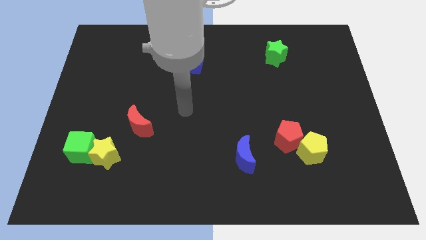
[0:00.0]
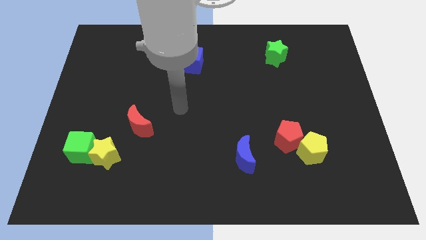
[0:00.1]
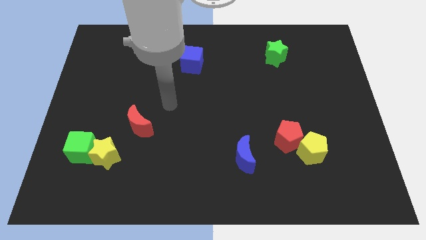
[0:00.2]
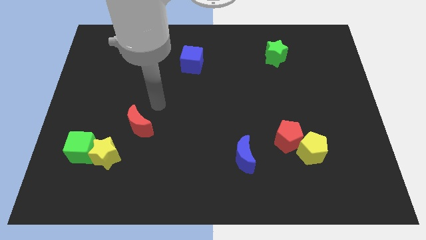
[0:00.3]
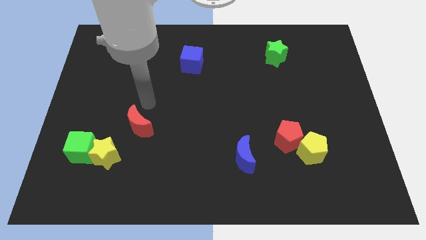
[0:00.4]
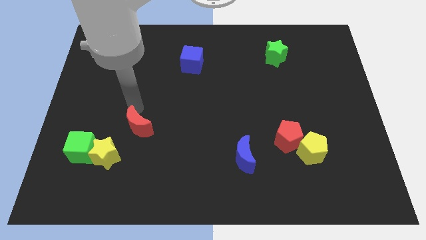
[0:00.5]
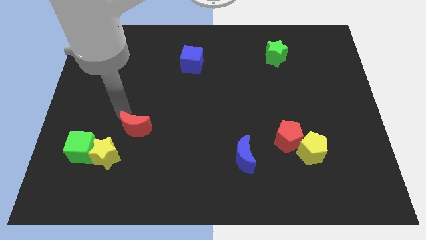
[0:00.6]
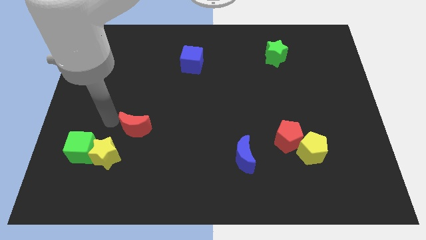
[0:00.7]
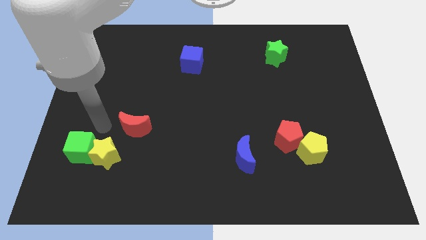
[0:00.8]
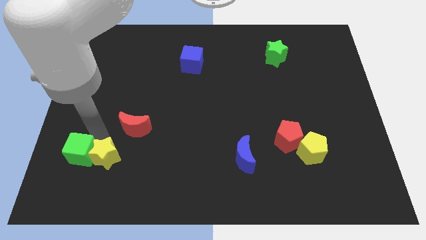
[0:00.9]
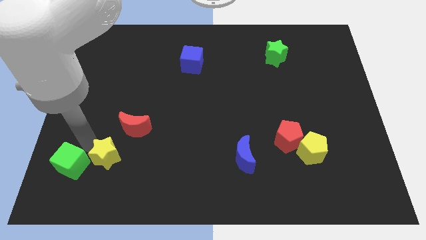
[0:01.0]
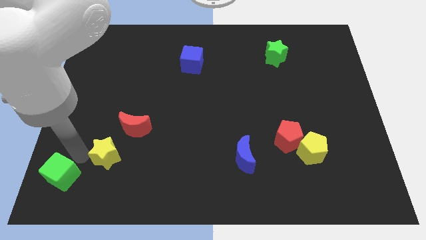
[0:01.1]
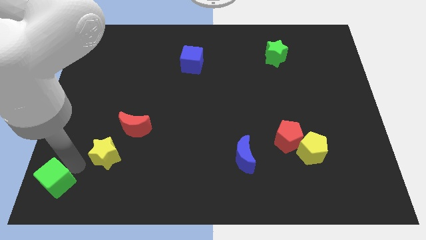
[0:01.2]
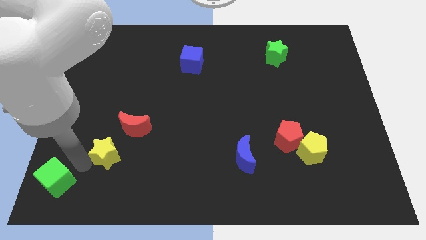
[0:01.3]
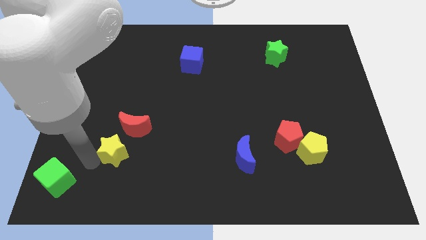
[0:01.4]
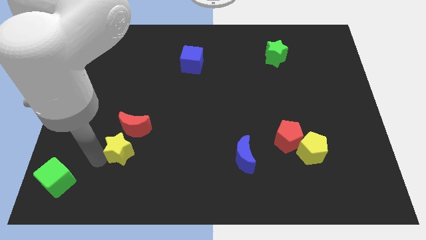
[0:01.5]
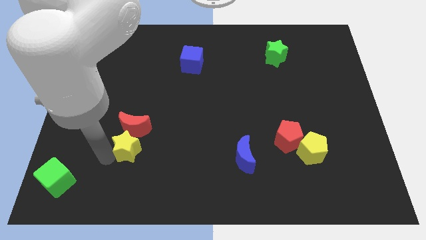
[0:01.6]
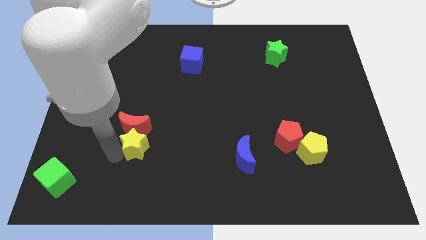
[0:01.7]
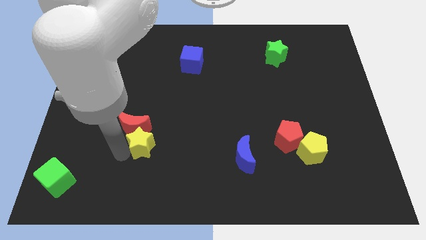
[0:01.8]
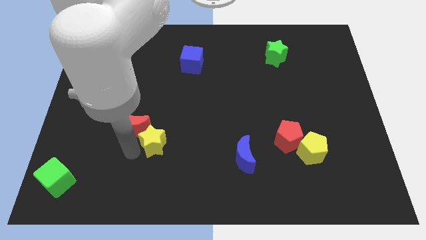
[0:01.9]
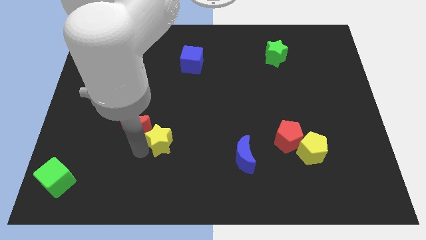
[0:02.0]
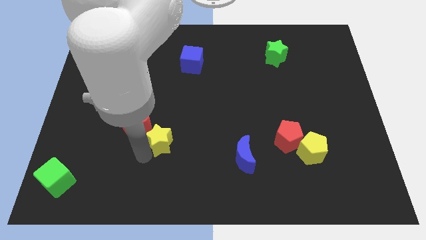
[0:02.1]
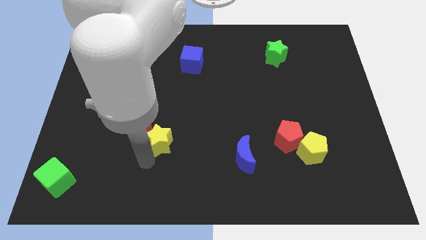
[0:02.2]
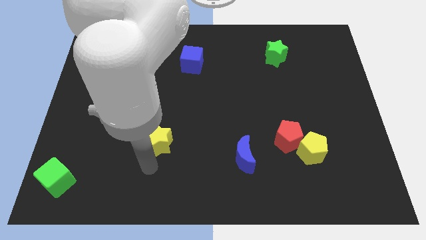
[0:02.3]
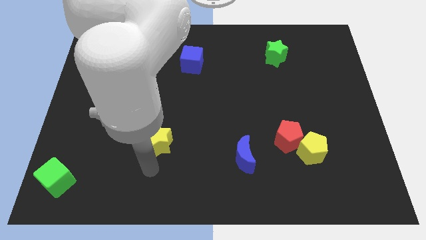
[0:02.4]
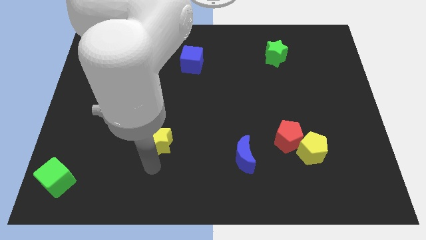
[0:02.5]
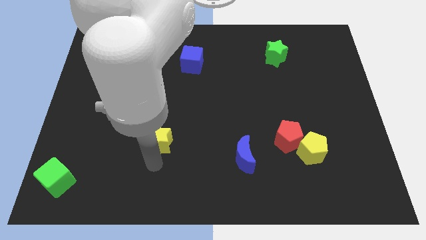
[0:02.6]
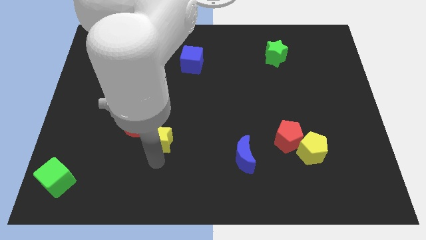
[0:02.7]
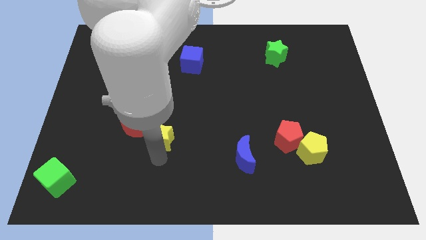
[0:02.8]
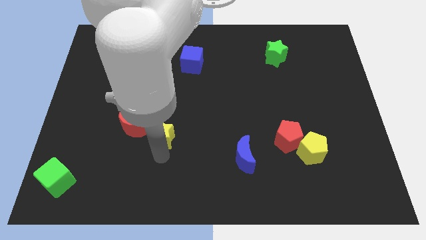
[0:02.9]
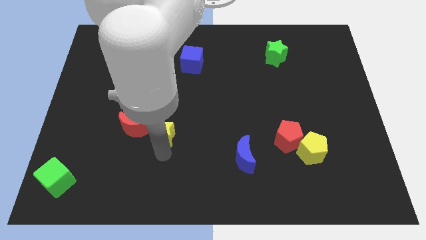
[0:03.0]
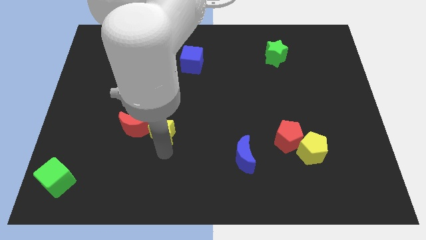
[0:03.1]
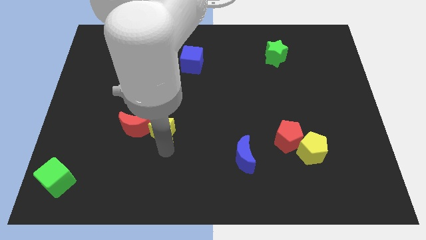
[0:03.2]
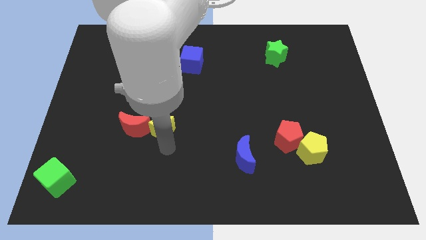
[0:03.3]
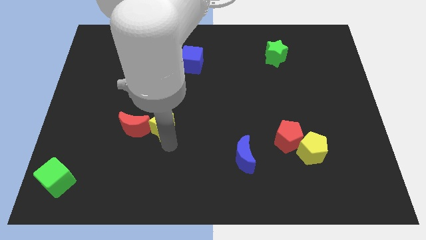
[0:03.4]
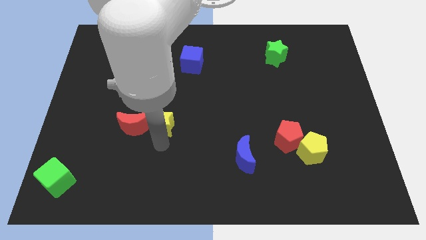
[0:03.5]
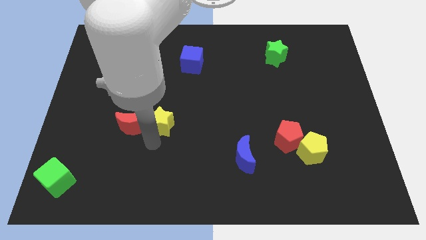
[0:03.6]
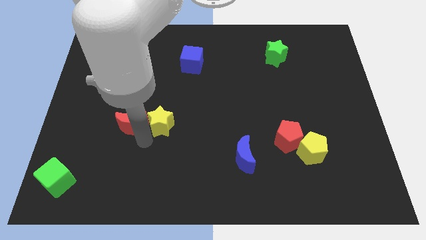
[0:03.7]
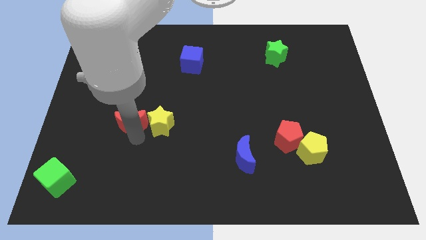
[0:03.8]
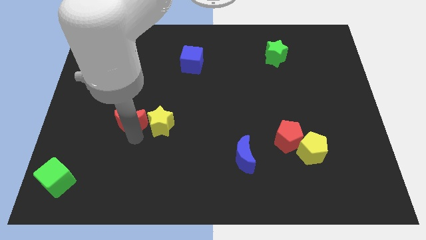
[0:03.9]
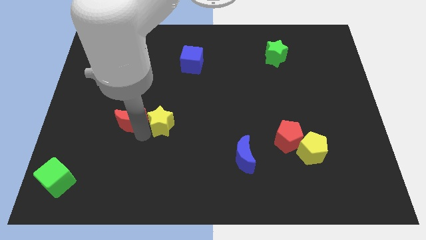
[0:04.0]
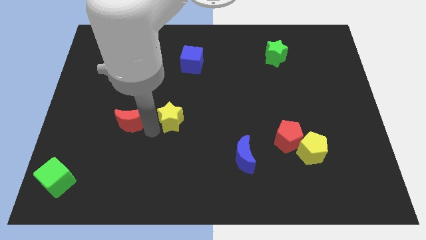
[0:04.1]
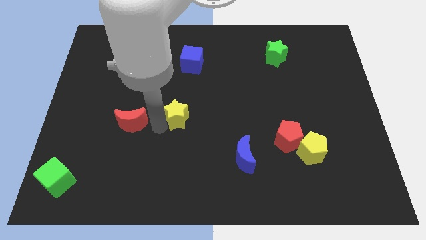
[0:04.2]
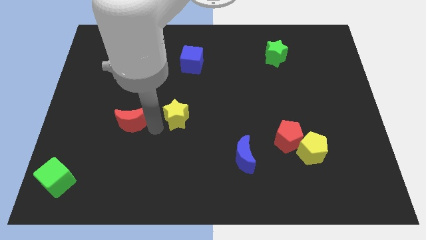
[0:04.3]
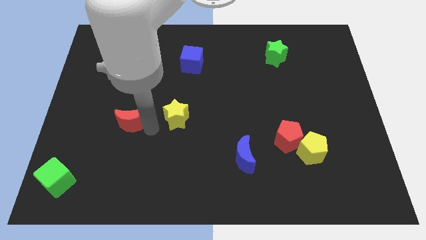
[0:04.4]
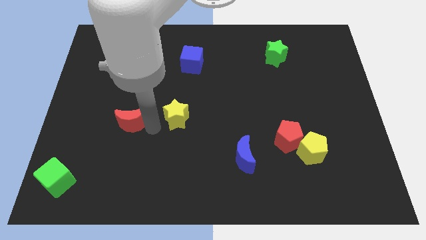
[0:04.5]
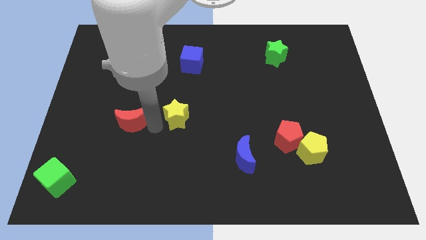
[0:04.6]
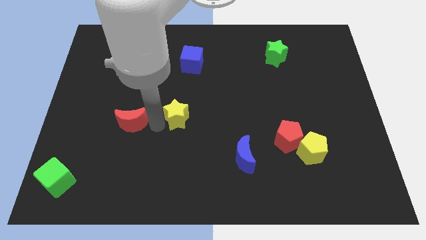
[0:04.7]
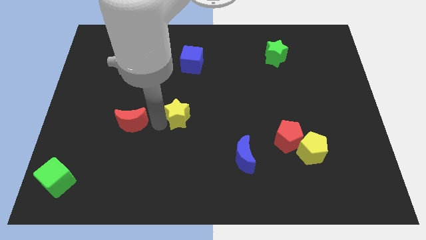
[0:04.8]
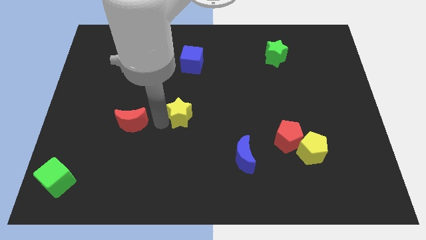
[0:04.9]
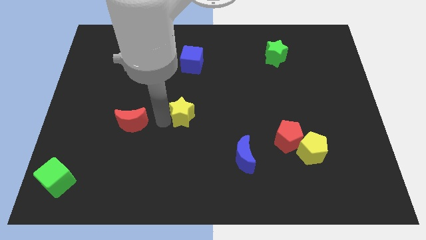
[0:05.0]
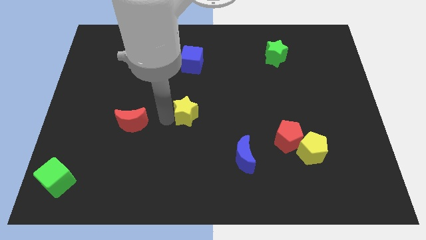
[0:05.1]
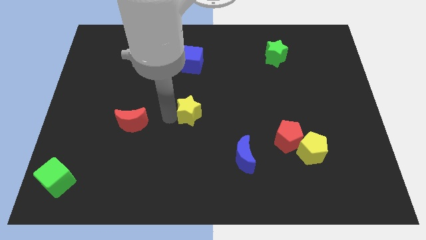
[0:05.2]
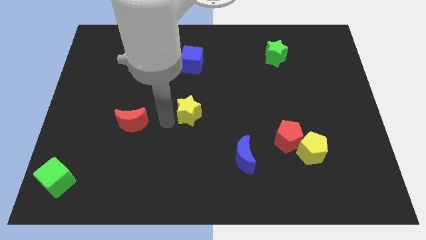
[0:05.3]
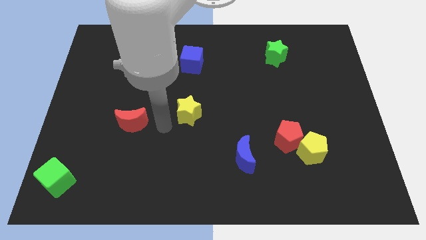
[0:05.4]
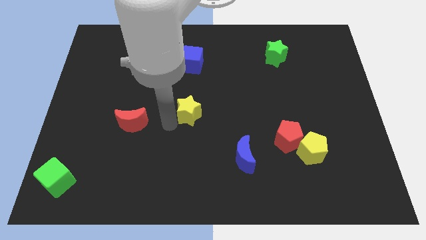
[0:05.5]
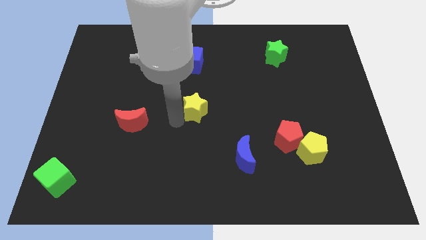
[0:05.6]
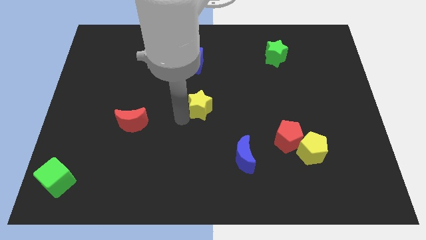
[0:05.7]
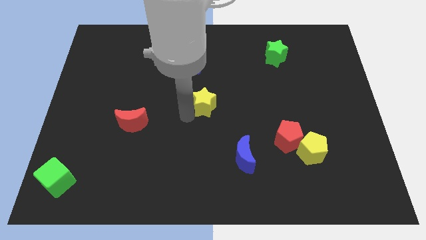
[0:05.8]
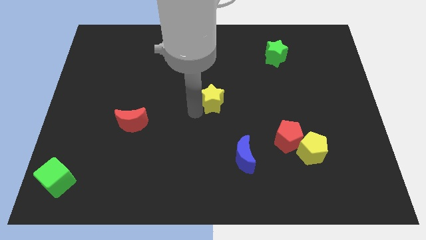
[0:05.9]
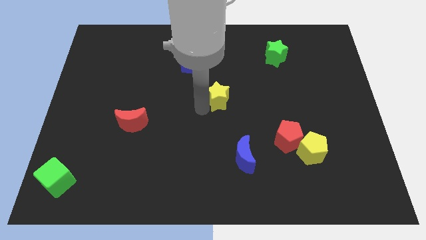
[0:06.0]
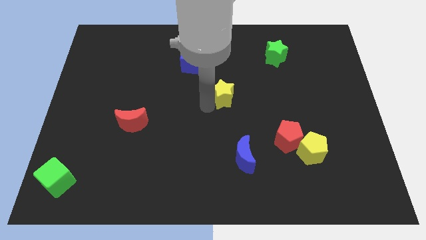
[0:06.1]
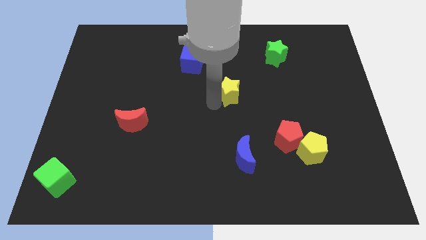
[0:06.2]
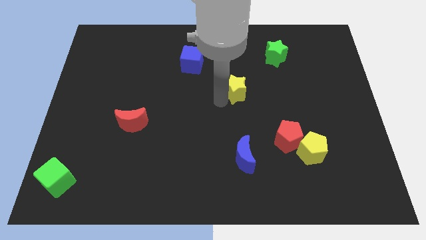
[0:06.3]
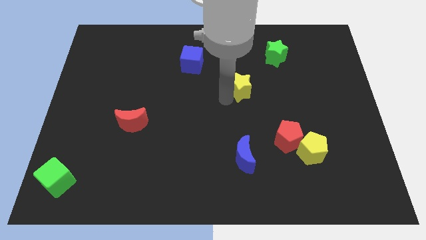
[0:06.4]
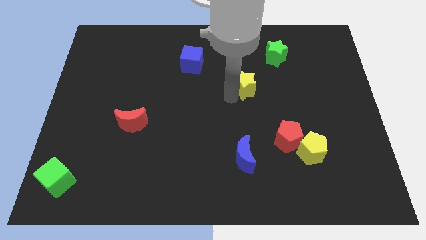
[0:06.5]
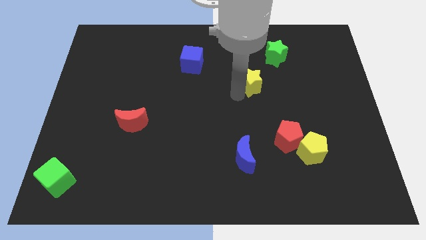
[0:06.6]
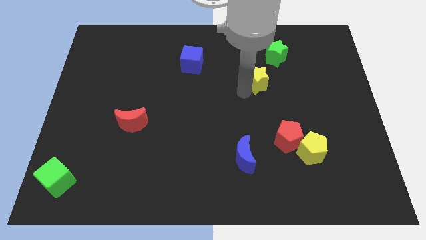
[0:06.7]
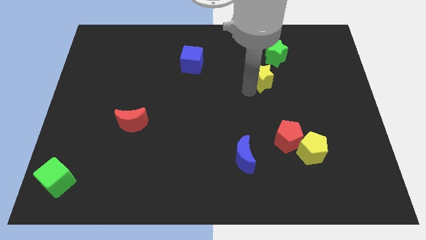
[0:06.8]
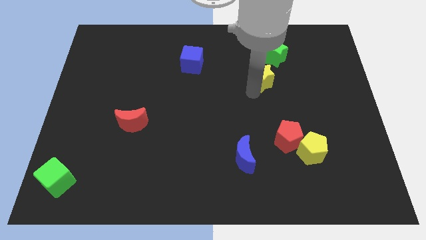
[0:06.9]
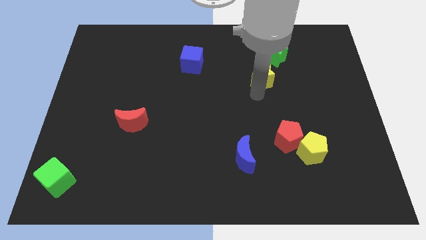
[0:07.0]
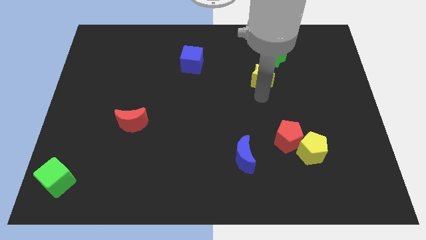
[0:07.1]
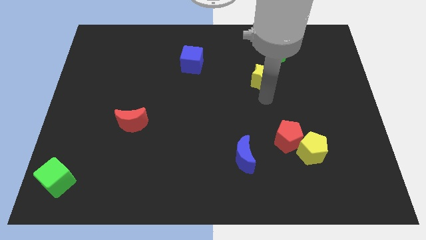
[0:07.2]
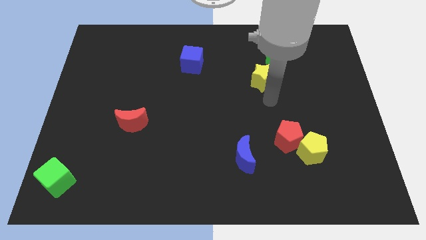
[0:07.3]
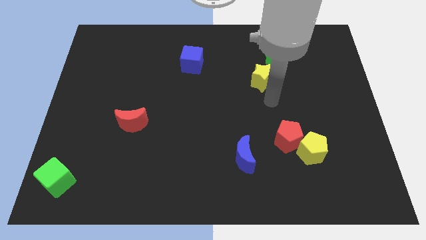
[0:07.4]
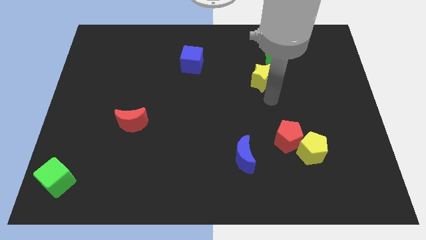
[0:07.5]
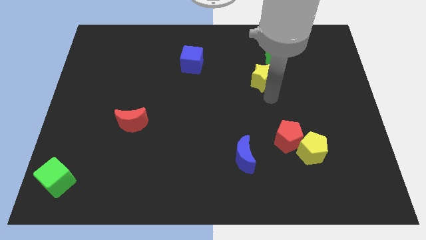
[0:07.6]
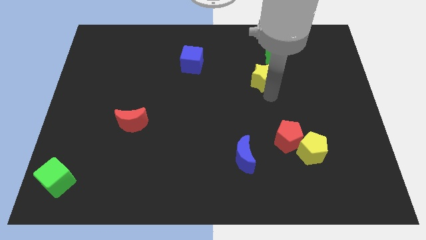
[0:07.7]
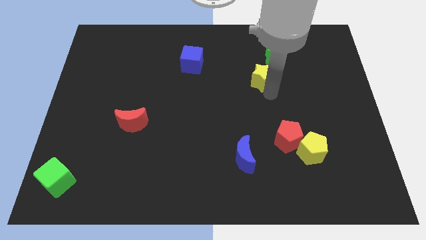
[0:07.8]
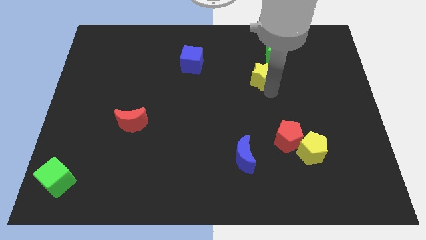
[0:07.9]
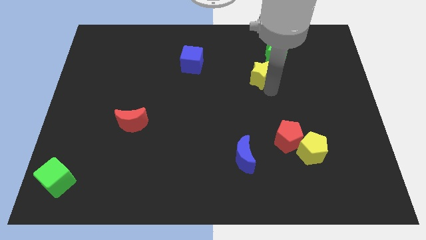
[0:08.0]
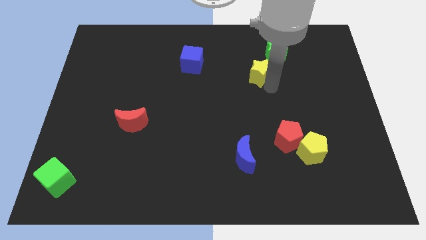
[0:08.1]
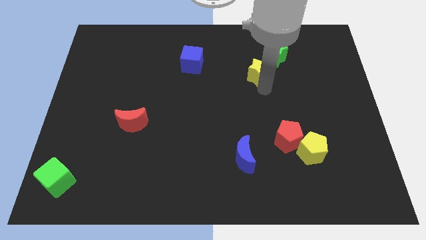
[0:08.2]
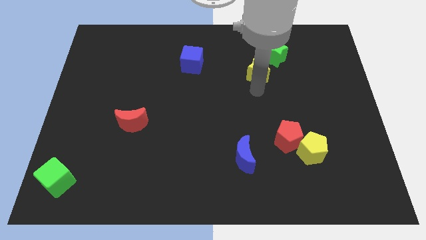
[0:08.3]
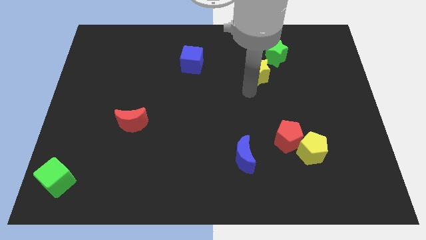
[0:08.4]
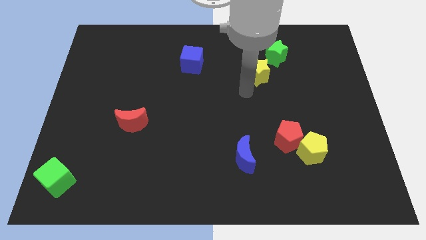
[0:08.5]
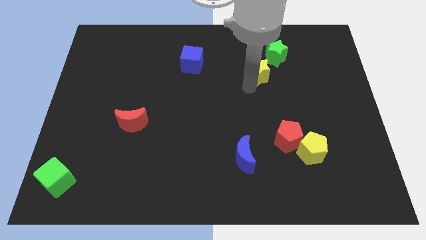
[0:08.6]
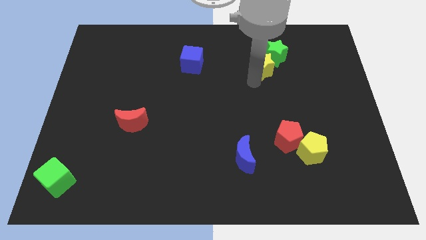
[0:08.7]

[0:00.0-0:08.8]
put the yellow star close to the green star
